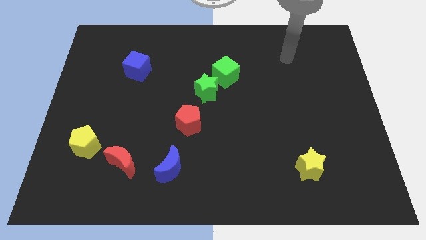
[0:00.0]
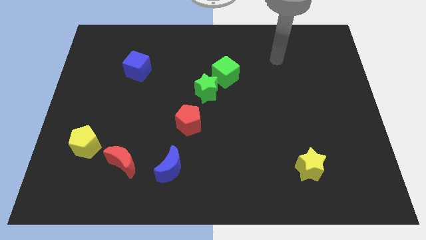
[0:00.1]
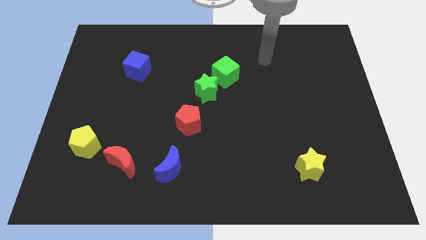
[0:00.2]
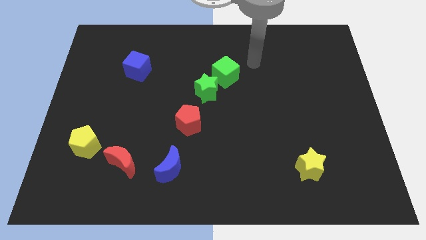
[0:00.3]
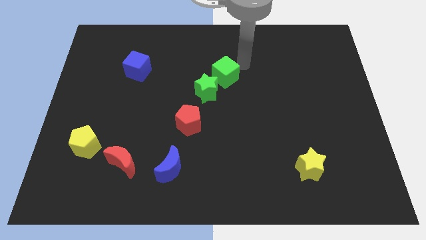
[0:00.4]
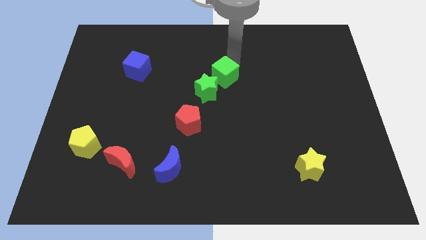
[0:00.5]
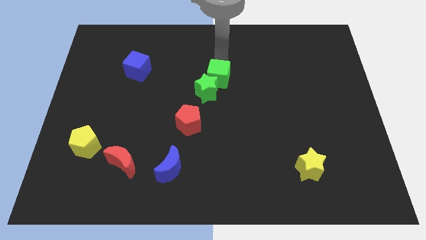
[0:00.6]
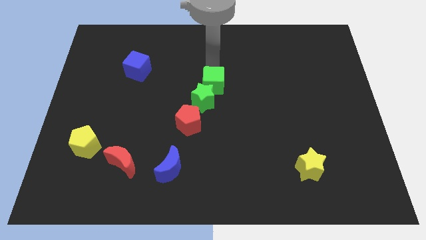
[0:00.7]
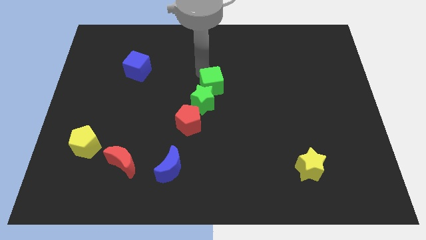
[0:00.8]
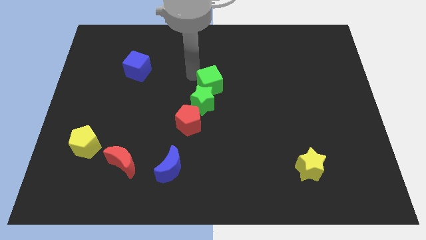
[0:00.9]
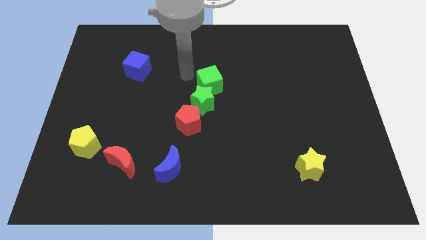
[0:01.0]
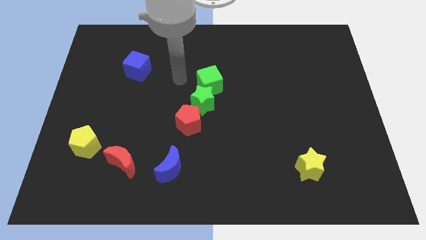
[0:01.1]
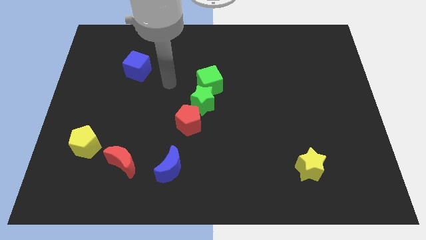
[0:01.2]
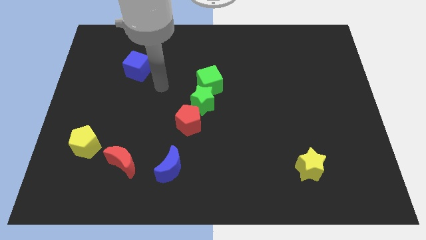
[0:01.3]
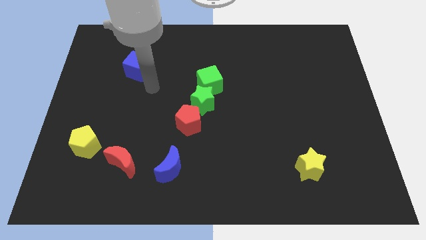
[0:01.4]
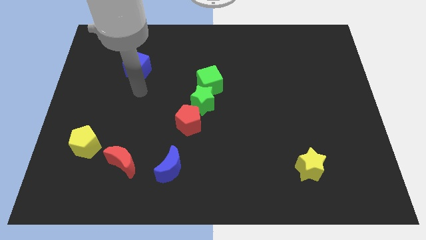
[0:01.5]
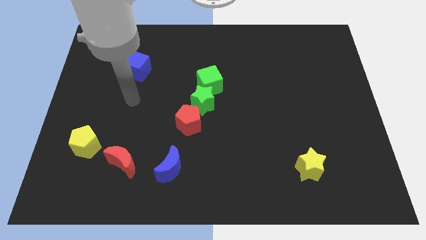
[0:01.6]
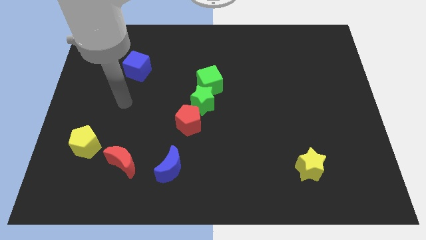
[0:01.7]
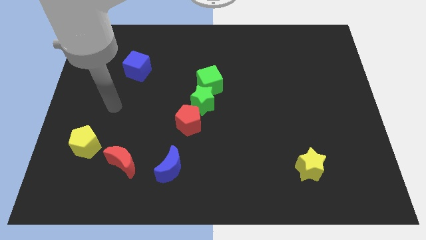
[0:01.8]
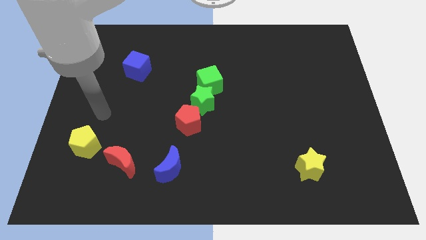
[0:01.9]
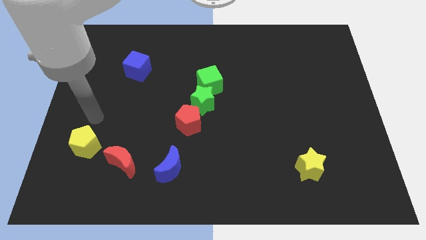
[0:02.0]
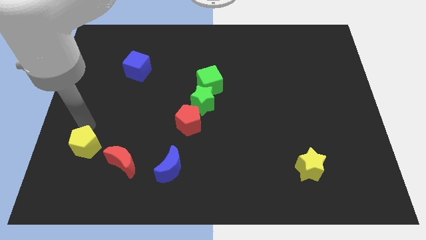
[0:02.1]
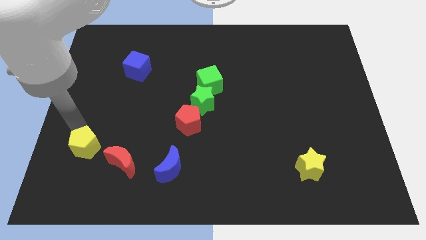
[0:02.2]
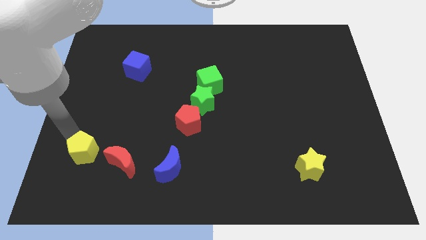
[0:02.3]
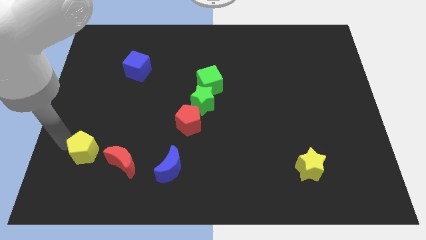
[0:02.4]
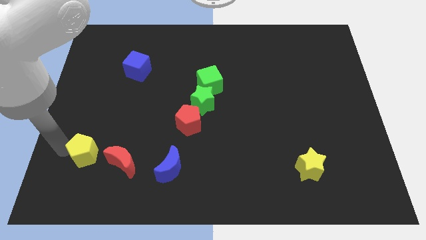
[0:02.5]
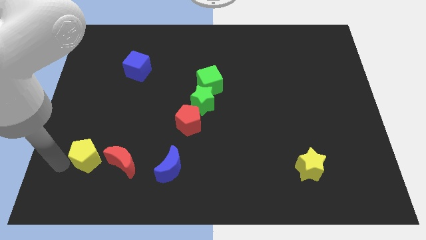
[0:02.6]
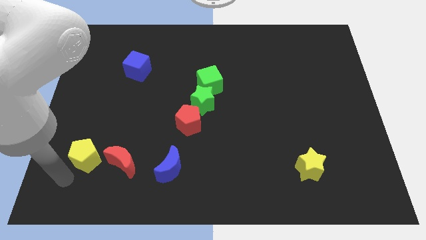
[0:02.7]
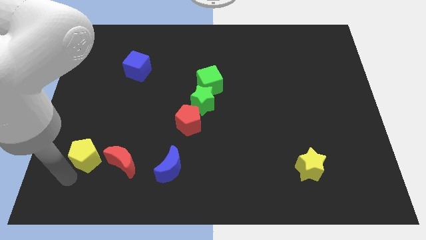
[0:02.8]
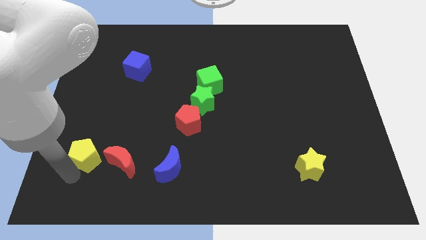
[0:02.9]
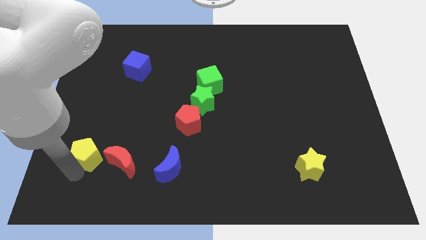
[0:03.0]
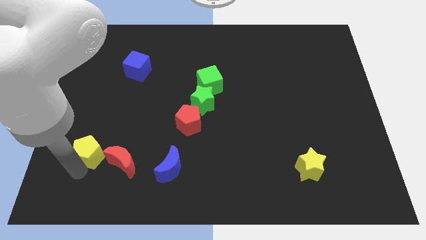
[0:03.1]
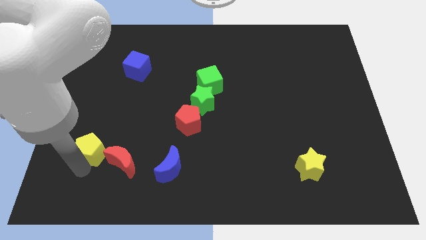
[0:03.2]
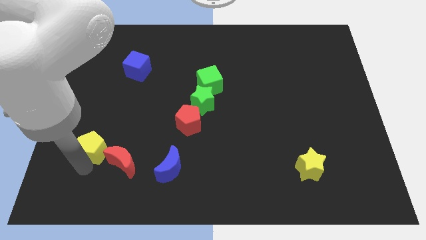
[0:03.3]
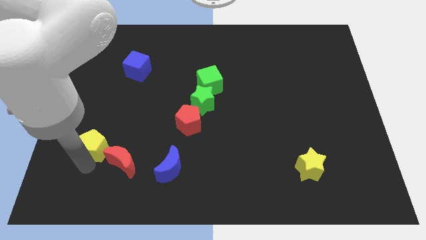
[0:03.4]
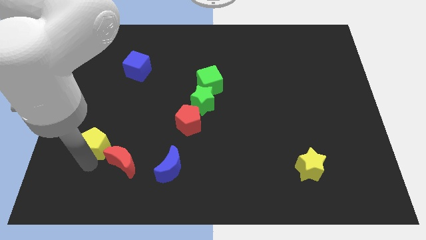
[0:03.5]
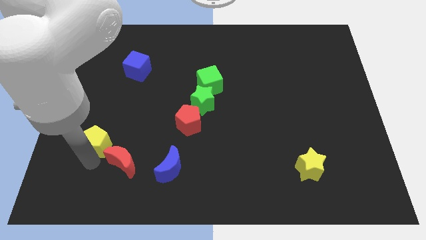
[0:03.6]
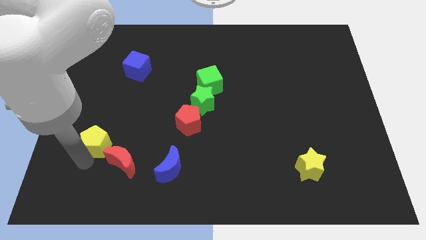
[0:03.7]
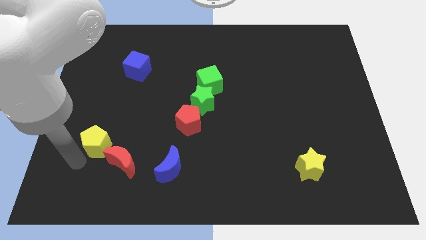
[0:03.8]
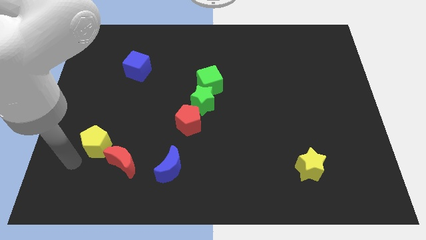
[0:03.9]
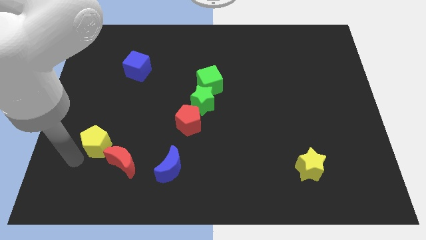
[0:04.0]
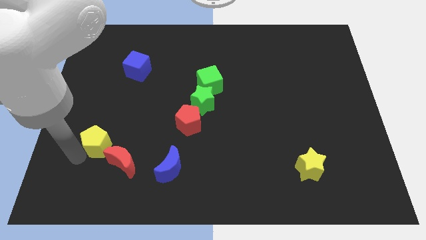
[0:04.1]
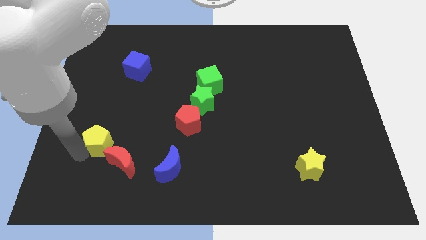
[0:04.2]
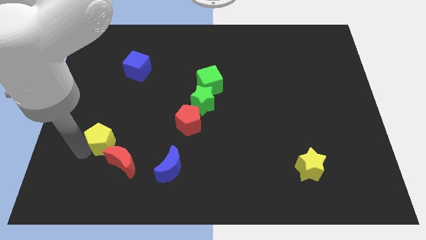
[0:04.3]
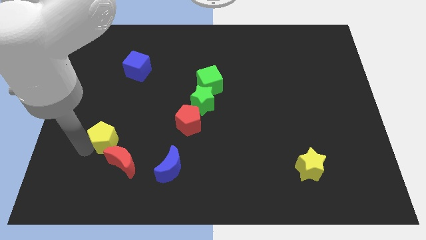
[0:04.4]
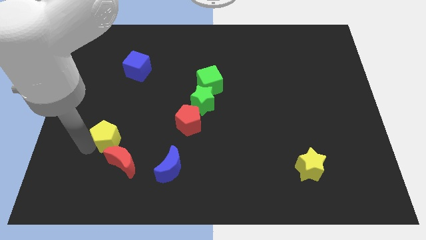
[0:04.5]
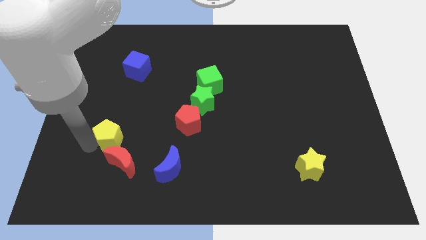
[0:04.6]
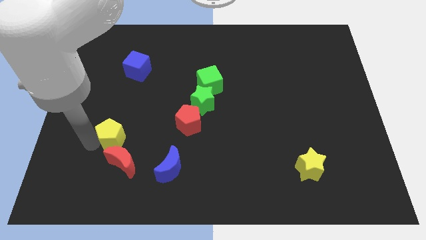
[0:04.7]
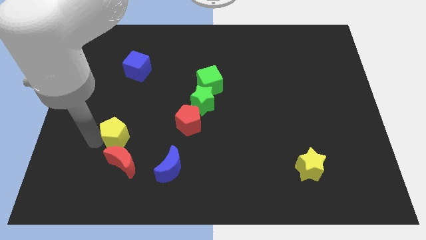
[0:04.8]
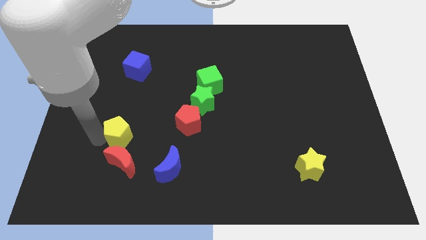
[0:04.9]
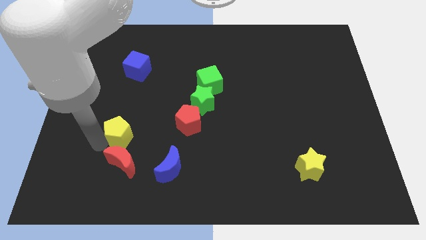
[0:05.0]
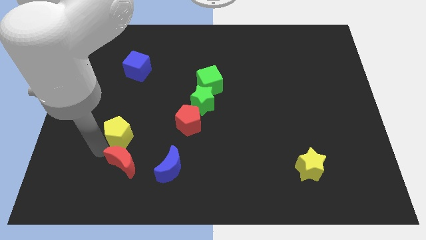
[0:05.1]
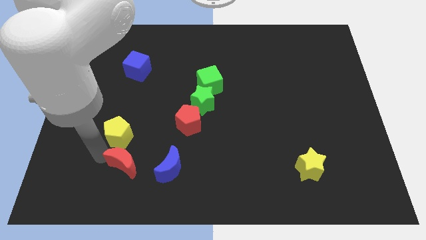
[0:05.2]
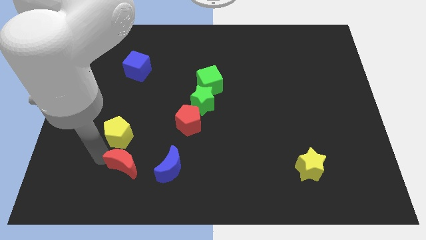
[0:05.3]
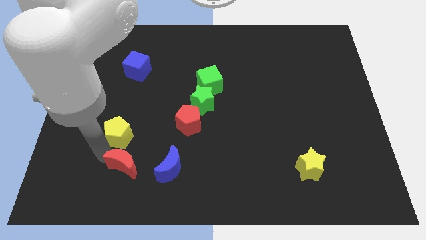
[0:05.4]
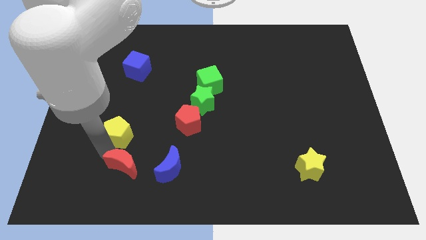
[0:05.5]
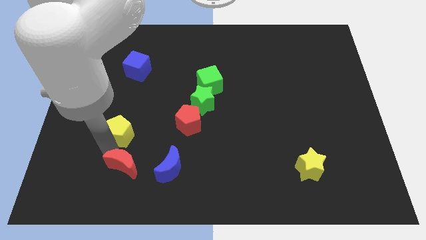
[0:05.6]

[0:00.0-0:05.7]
push the yellow pentagon up and to the right somewhat

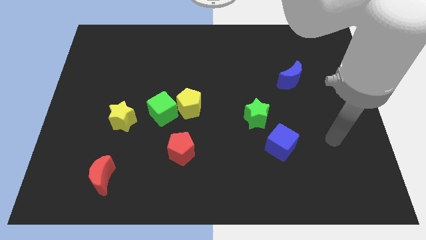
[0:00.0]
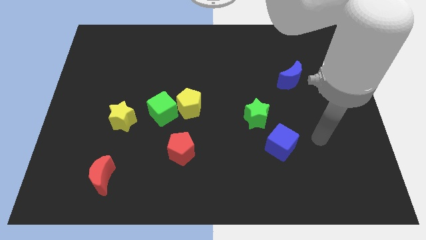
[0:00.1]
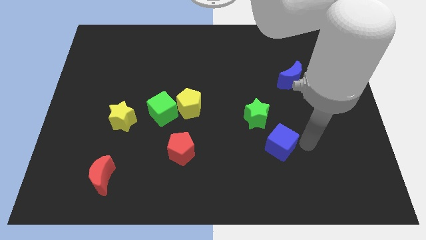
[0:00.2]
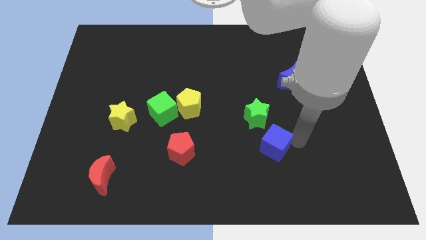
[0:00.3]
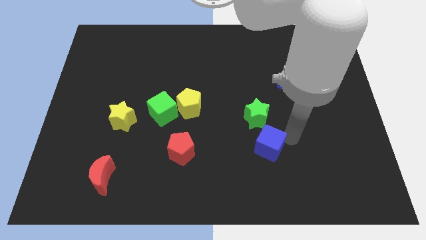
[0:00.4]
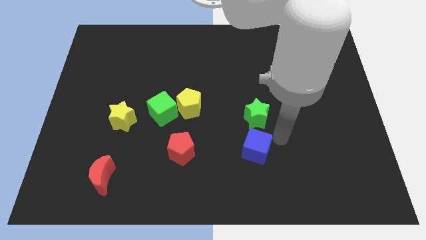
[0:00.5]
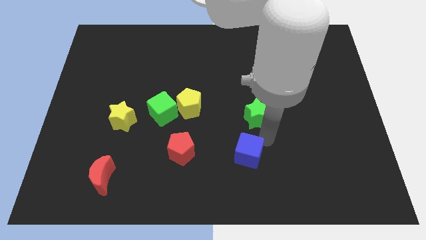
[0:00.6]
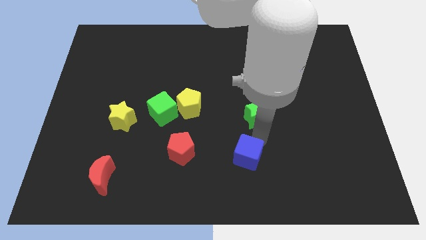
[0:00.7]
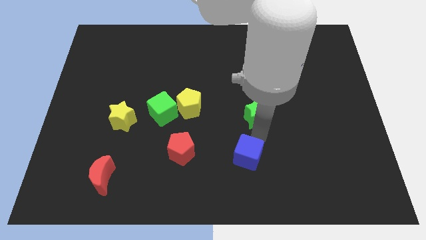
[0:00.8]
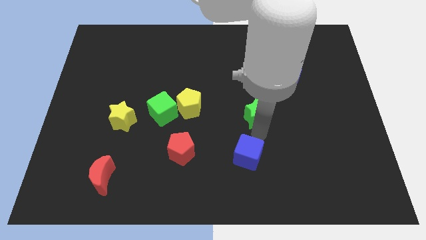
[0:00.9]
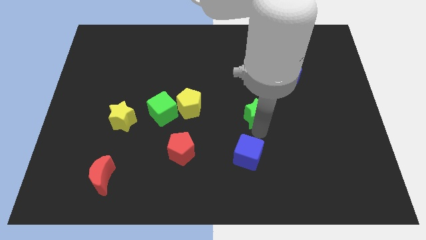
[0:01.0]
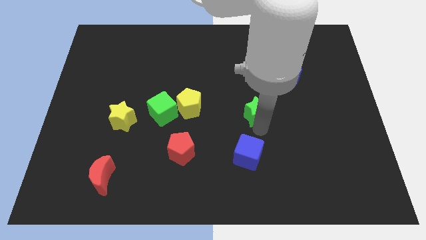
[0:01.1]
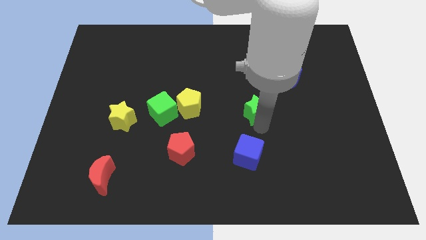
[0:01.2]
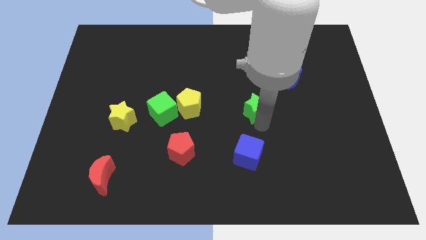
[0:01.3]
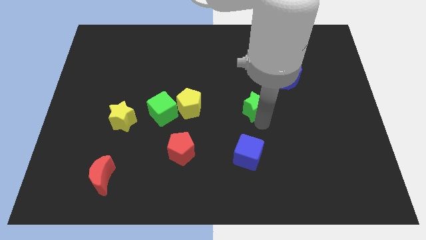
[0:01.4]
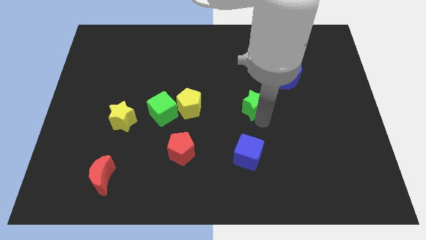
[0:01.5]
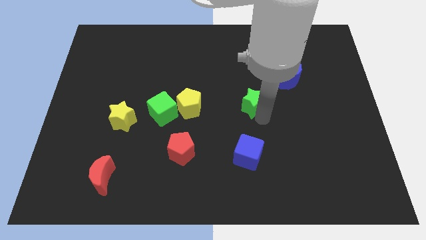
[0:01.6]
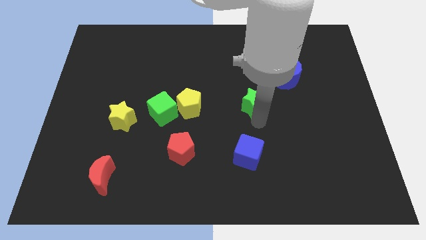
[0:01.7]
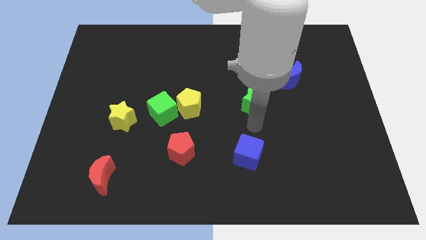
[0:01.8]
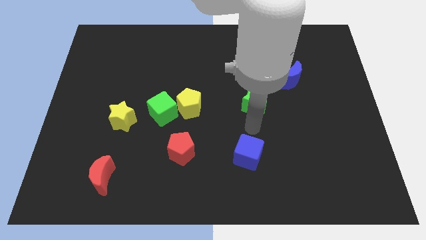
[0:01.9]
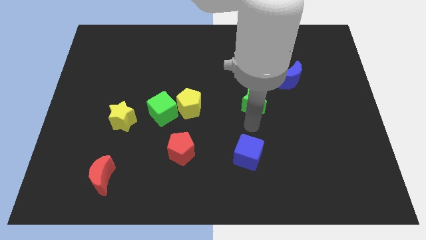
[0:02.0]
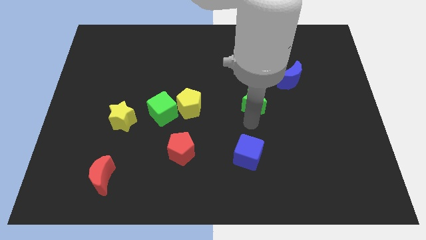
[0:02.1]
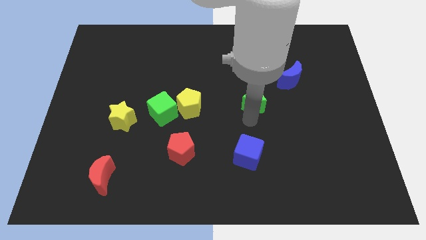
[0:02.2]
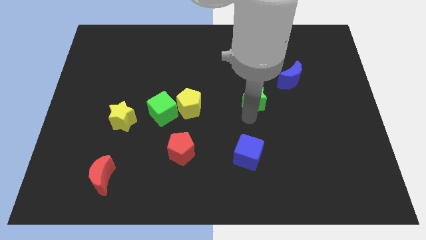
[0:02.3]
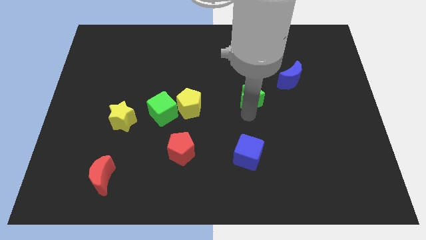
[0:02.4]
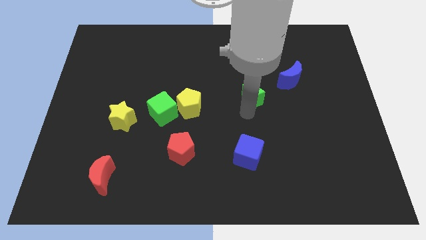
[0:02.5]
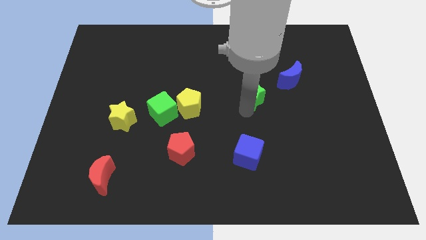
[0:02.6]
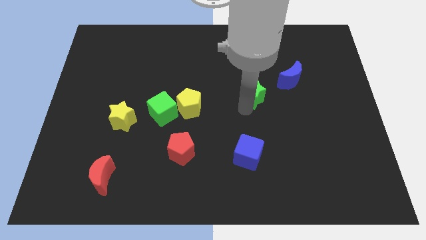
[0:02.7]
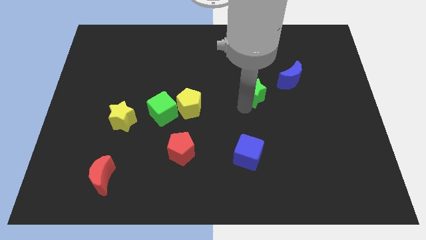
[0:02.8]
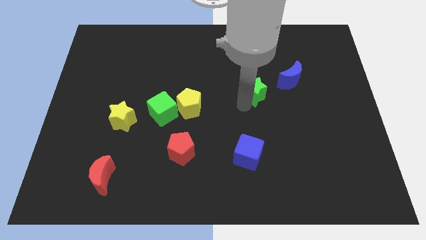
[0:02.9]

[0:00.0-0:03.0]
move the green star somewhat up
